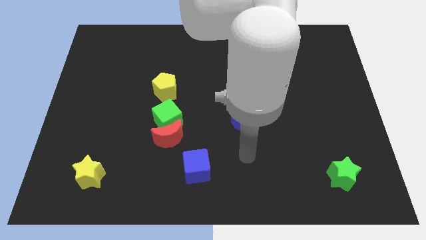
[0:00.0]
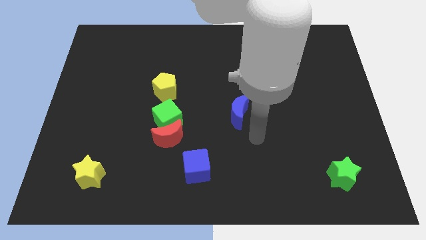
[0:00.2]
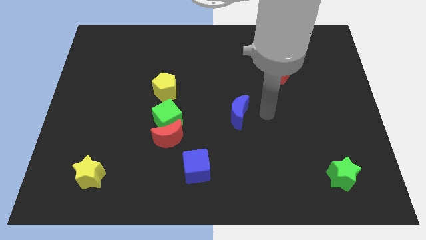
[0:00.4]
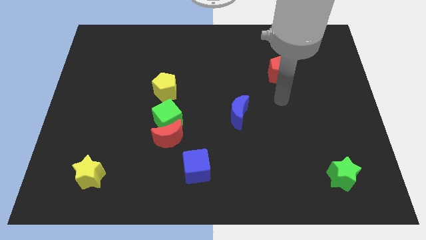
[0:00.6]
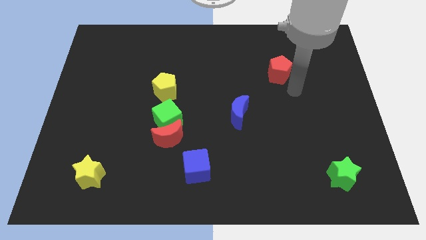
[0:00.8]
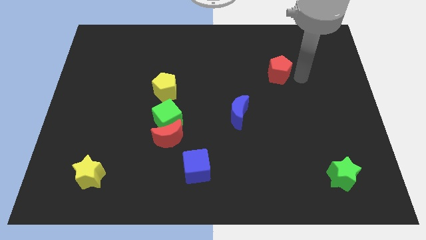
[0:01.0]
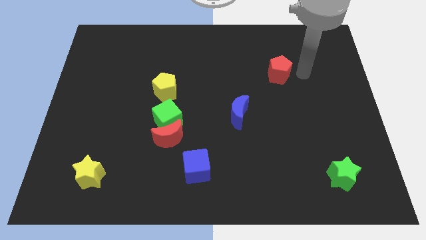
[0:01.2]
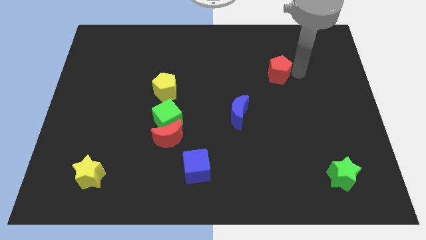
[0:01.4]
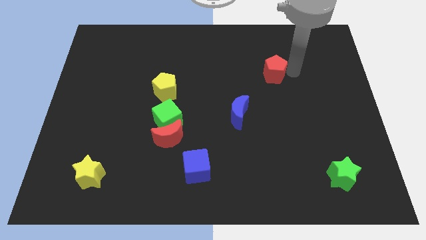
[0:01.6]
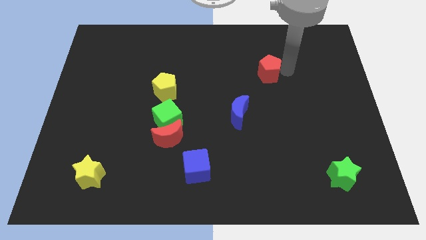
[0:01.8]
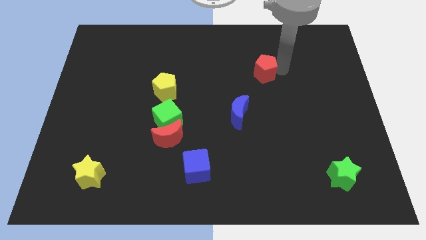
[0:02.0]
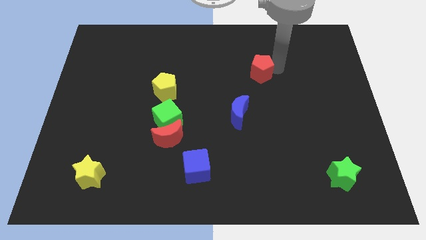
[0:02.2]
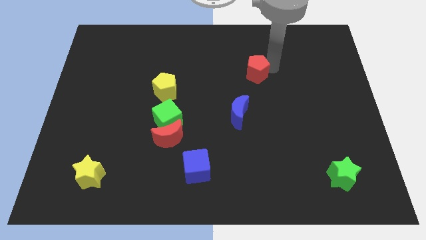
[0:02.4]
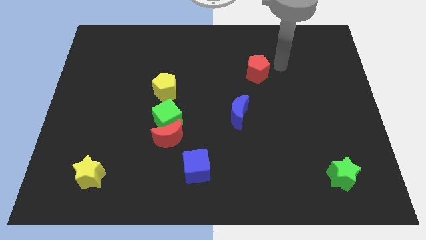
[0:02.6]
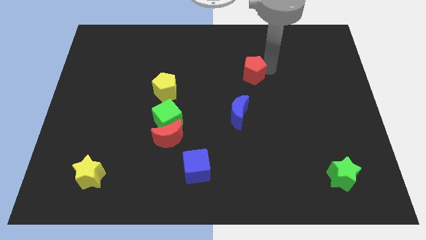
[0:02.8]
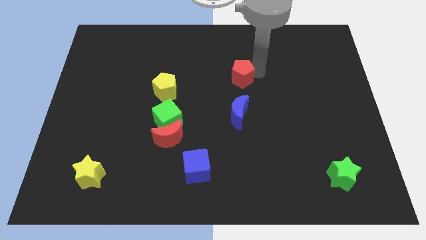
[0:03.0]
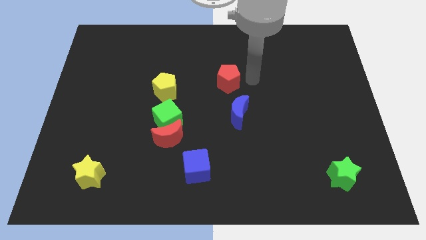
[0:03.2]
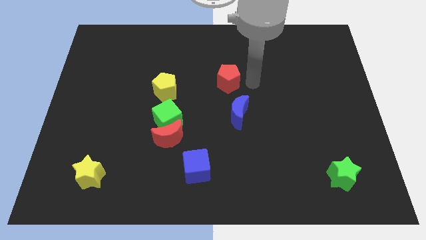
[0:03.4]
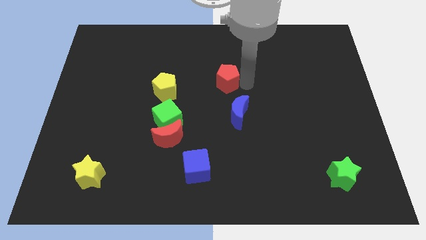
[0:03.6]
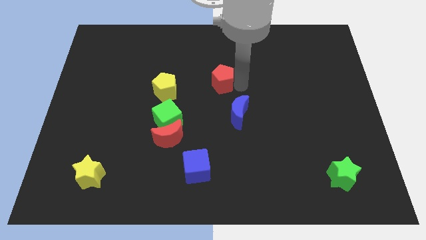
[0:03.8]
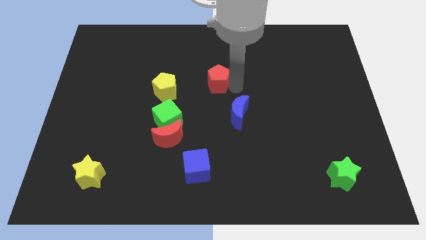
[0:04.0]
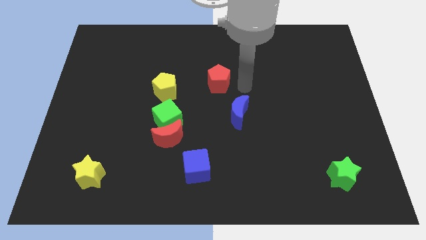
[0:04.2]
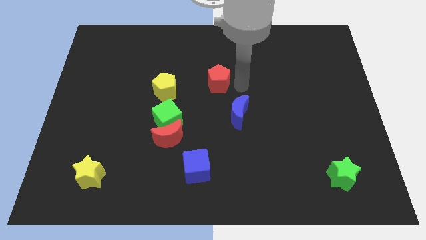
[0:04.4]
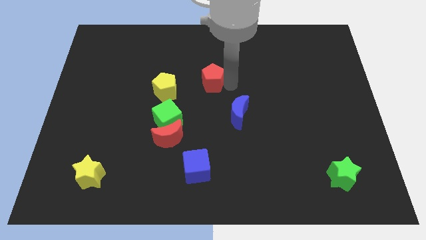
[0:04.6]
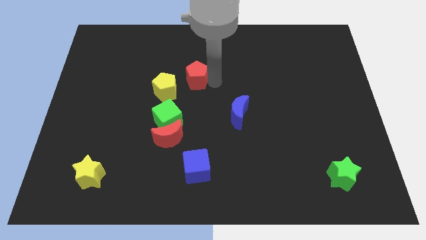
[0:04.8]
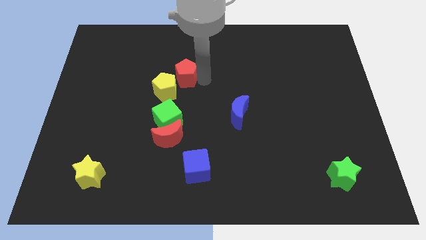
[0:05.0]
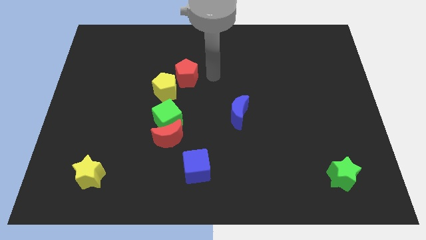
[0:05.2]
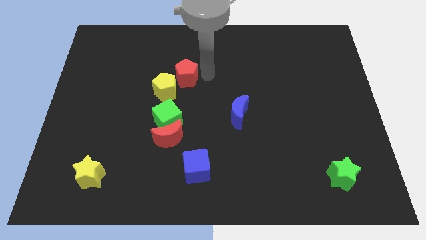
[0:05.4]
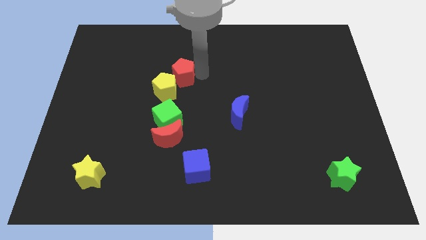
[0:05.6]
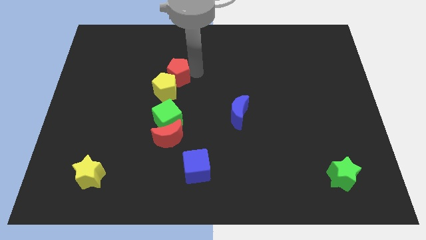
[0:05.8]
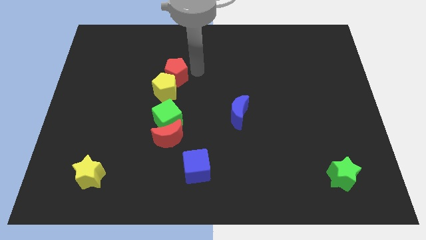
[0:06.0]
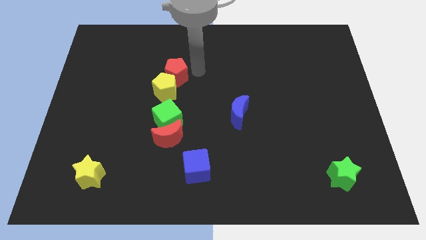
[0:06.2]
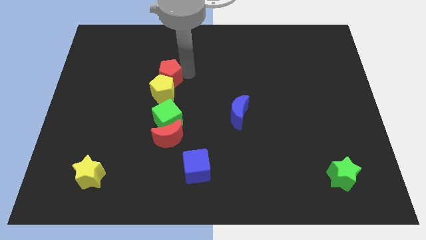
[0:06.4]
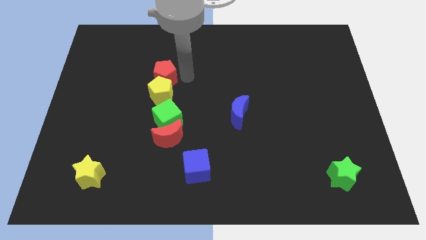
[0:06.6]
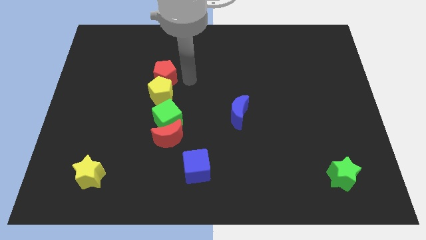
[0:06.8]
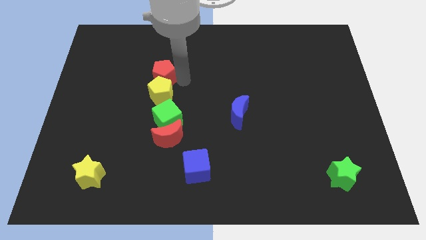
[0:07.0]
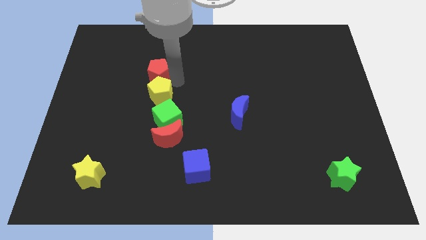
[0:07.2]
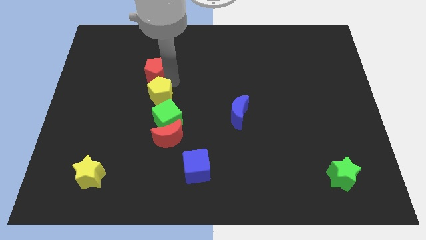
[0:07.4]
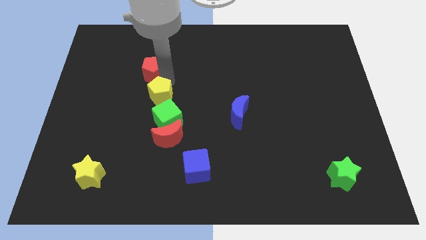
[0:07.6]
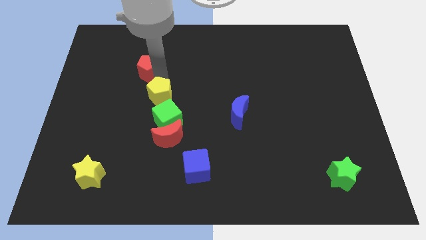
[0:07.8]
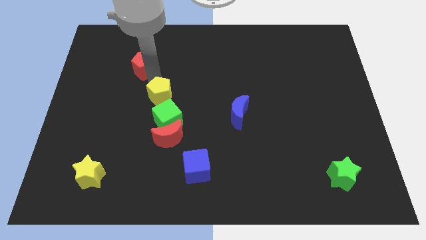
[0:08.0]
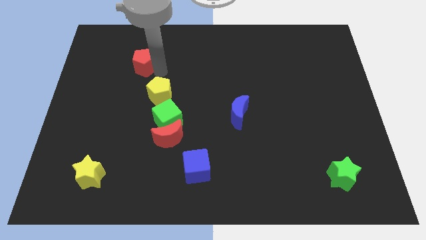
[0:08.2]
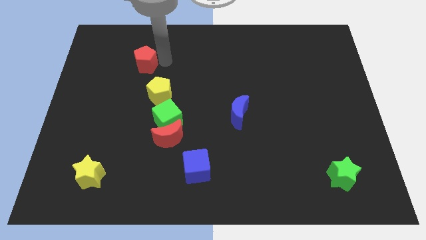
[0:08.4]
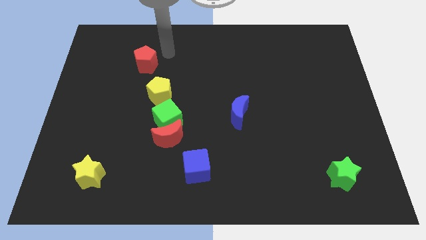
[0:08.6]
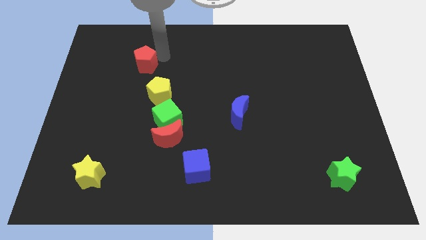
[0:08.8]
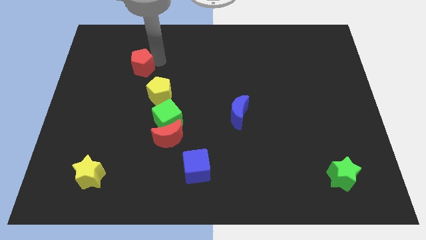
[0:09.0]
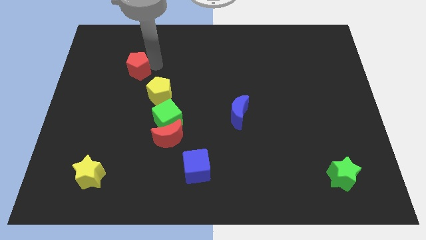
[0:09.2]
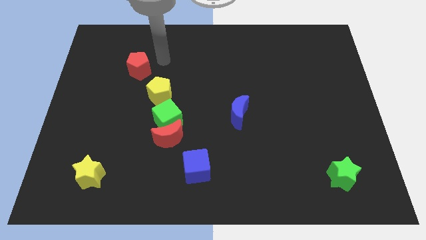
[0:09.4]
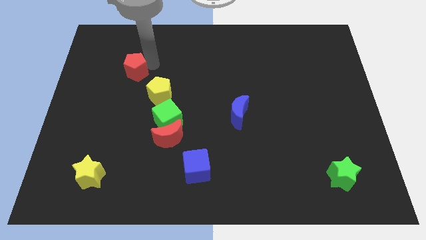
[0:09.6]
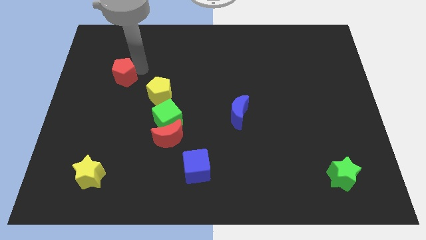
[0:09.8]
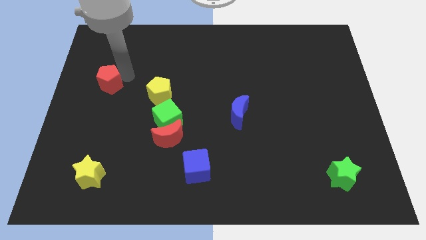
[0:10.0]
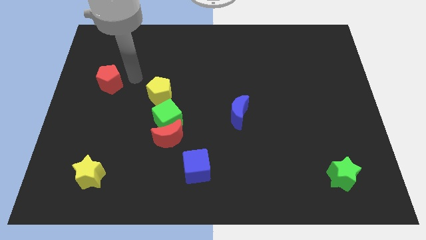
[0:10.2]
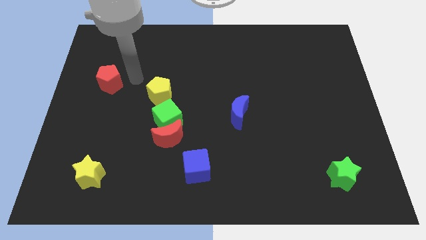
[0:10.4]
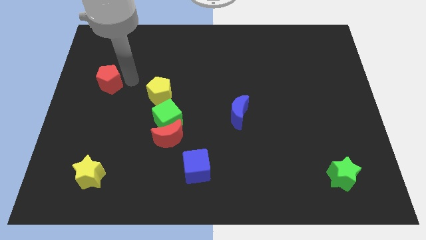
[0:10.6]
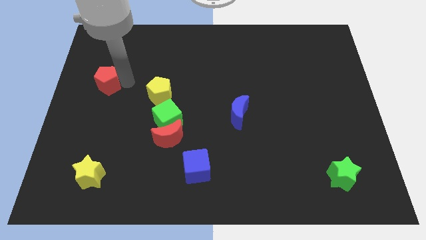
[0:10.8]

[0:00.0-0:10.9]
slide the red pentagon to the left side of the board

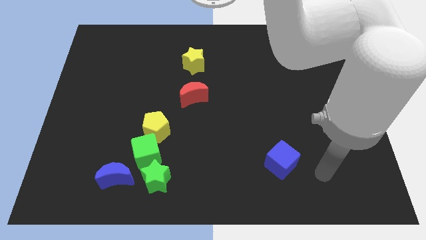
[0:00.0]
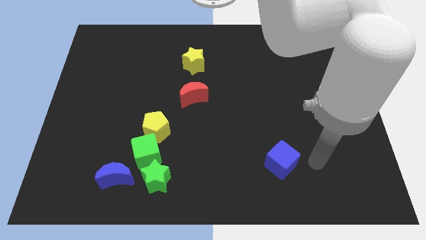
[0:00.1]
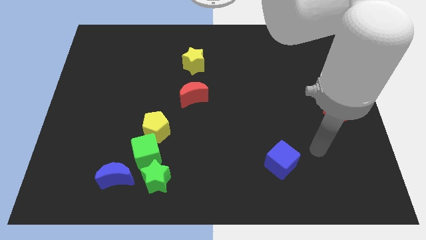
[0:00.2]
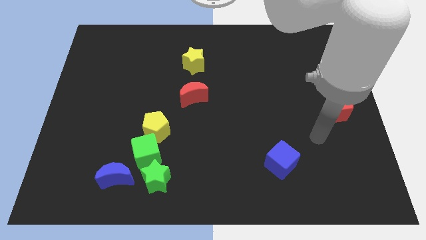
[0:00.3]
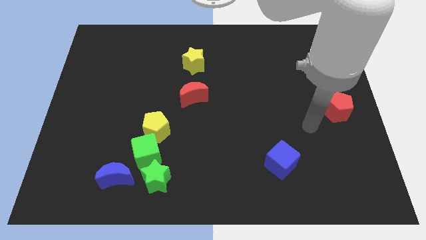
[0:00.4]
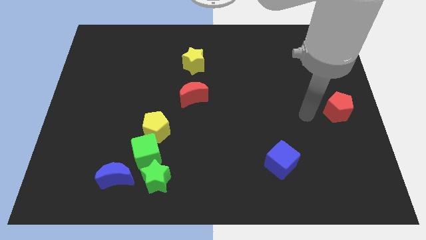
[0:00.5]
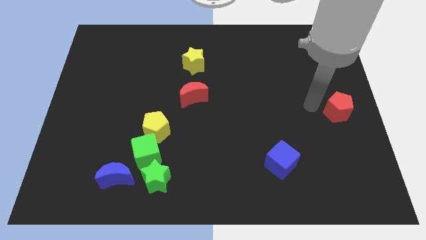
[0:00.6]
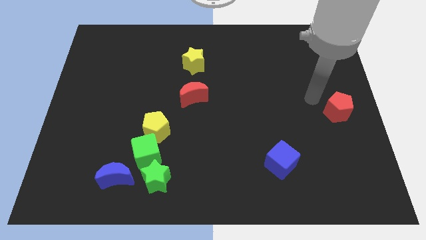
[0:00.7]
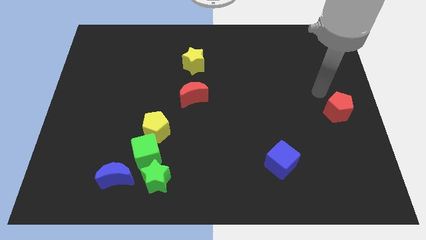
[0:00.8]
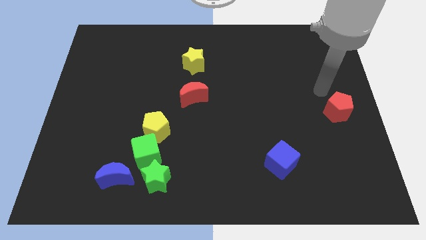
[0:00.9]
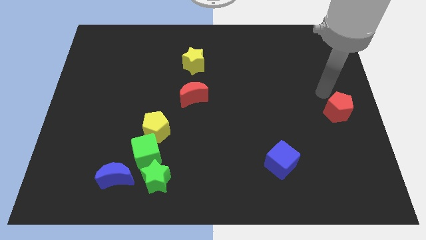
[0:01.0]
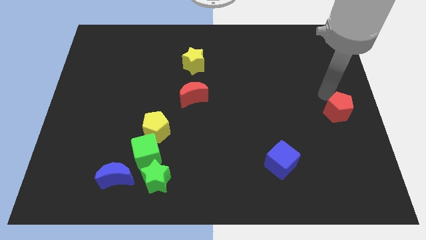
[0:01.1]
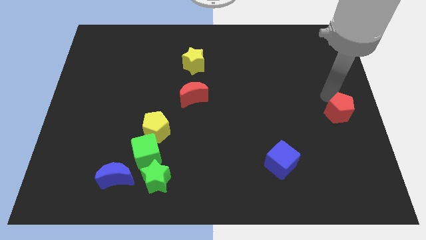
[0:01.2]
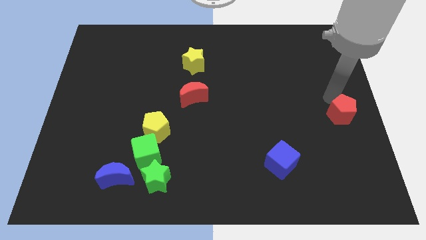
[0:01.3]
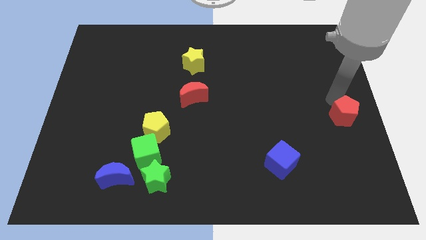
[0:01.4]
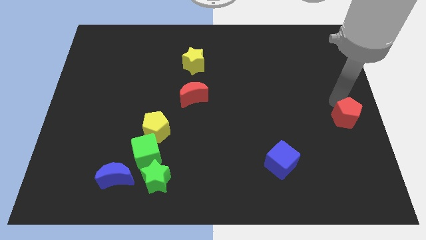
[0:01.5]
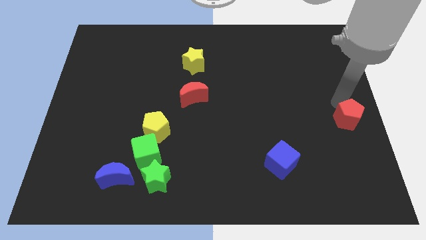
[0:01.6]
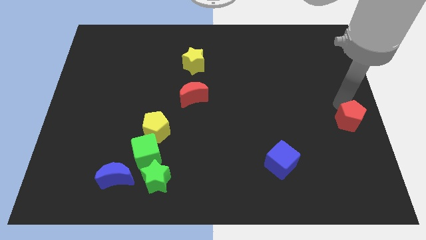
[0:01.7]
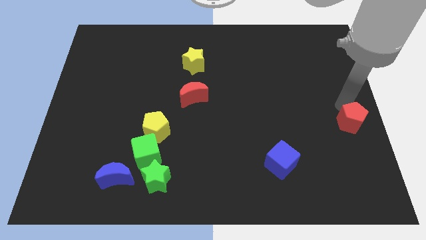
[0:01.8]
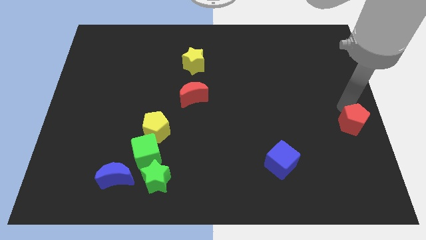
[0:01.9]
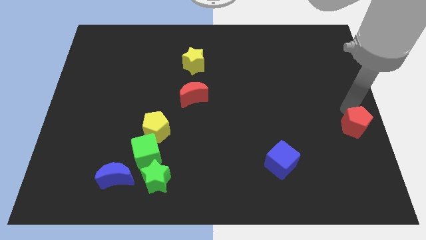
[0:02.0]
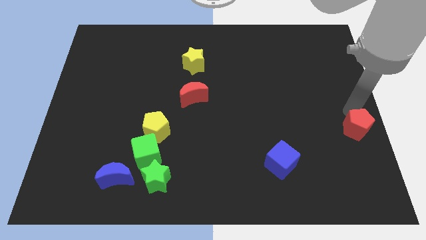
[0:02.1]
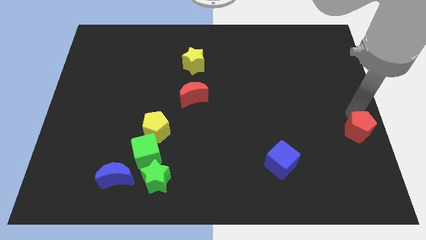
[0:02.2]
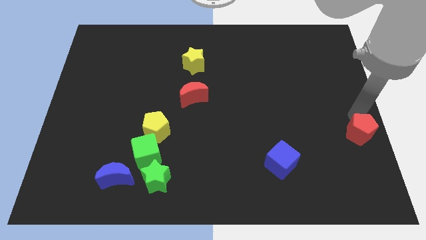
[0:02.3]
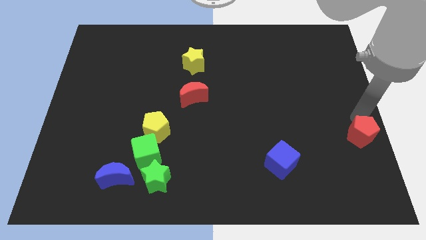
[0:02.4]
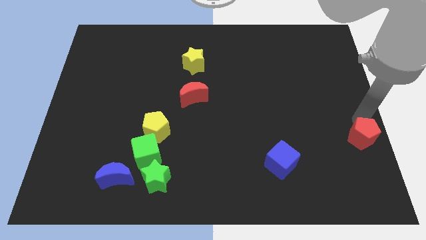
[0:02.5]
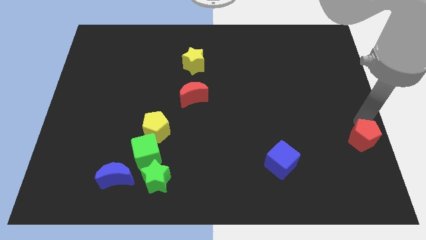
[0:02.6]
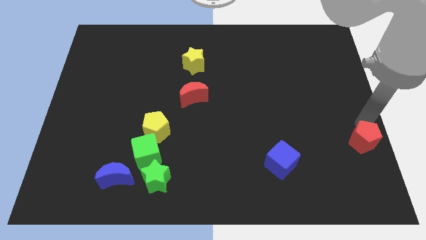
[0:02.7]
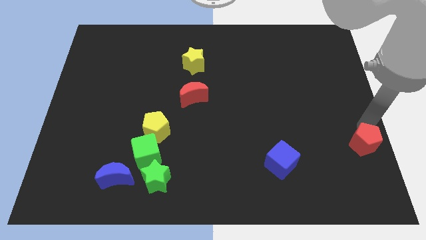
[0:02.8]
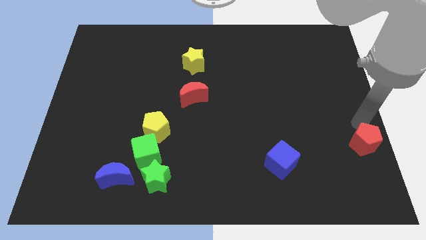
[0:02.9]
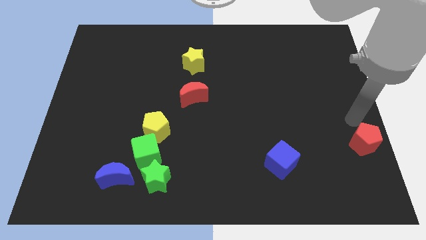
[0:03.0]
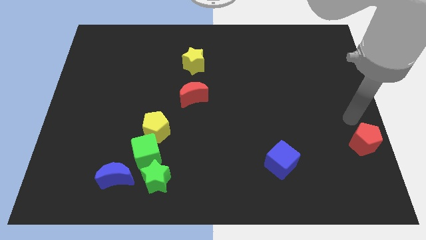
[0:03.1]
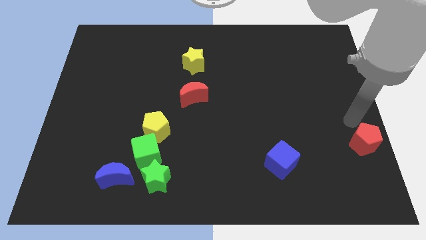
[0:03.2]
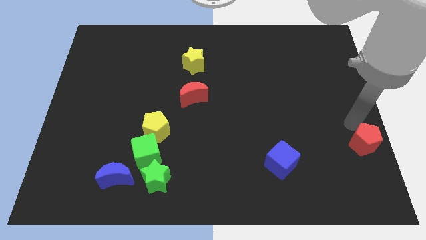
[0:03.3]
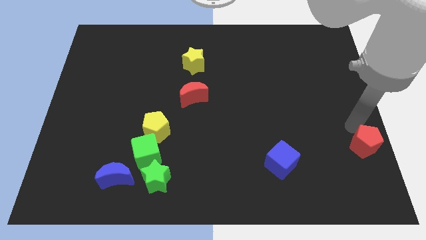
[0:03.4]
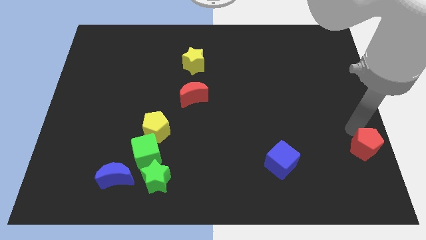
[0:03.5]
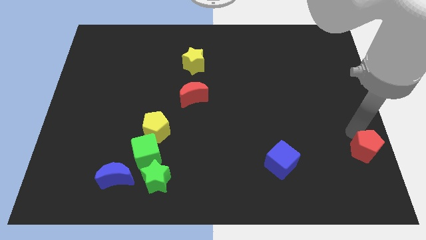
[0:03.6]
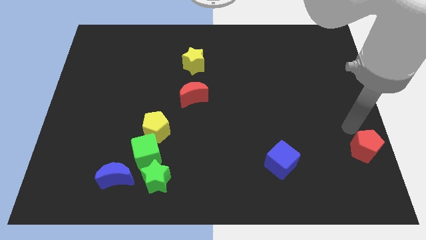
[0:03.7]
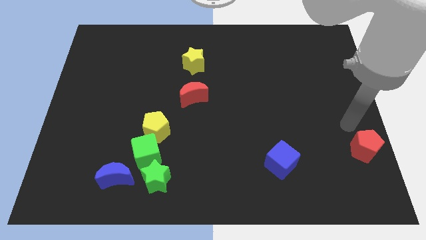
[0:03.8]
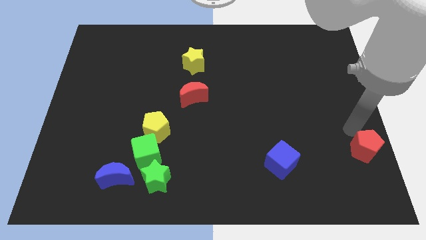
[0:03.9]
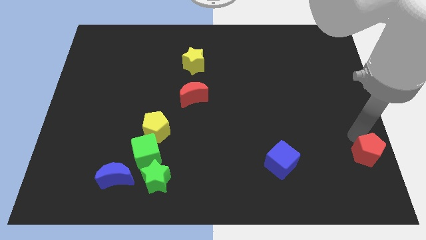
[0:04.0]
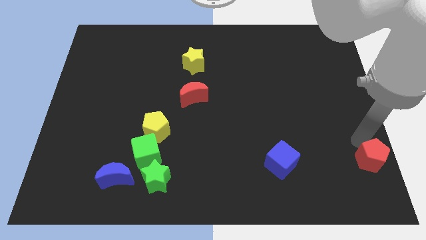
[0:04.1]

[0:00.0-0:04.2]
move the red pentagon to the bottom right corner
